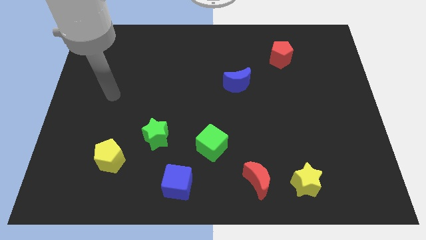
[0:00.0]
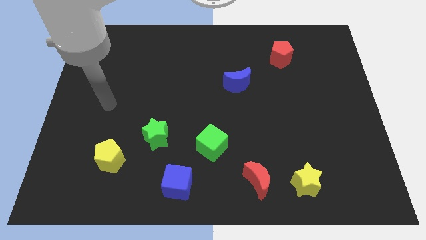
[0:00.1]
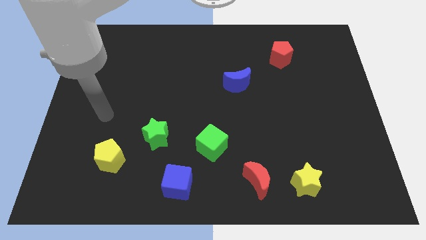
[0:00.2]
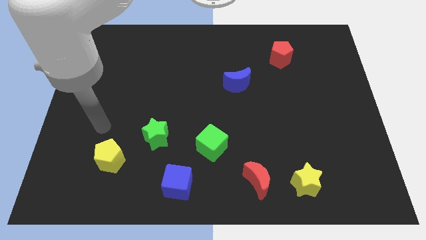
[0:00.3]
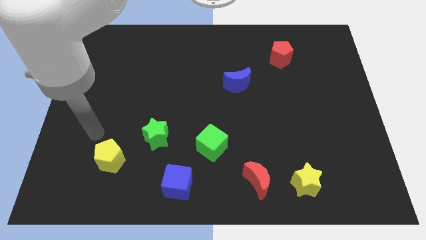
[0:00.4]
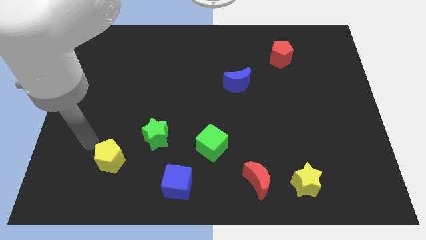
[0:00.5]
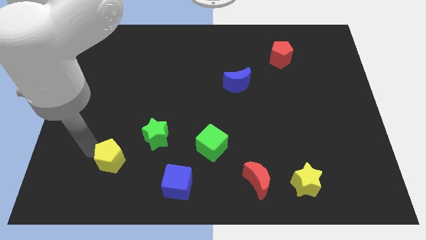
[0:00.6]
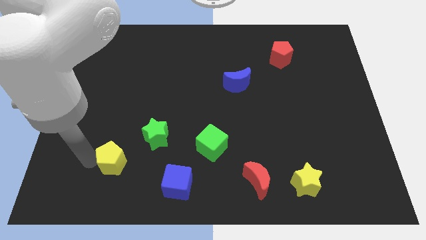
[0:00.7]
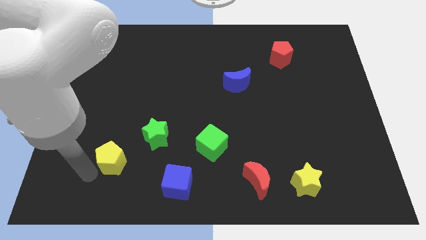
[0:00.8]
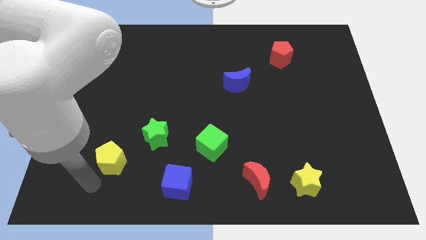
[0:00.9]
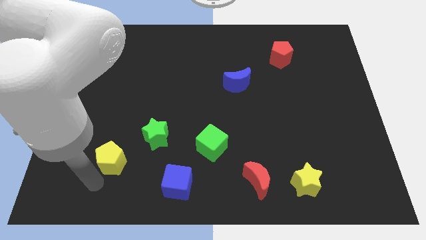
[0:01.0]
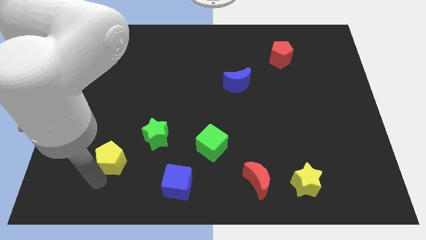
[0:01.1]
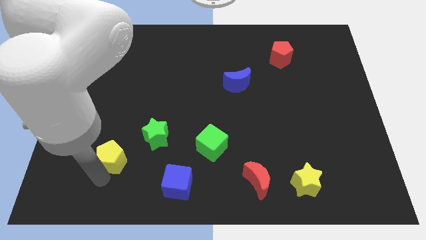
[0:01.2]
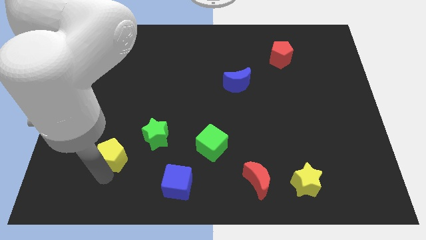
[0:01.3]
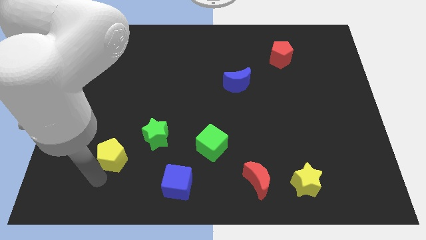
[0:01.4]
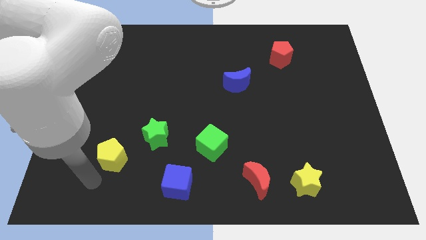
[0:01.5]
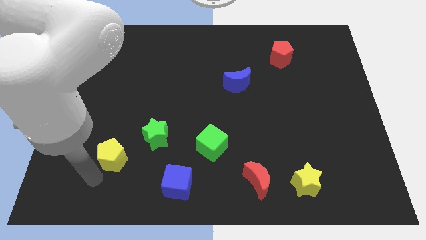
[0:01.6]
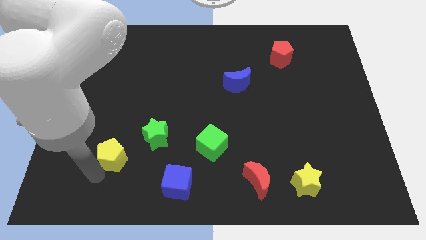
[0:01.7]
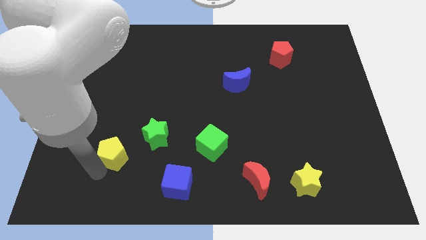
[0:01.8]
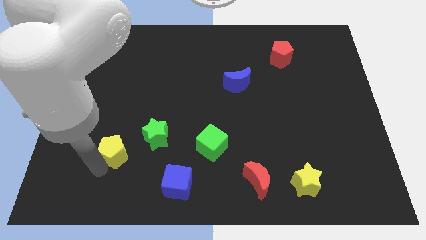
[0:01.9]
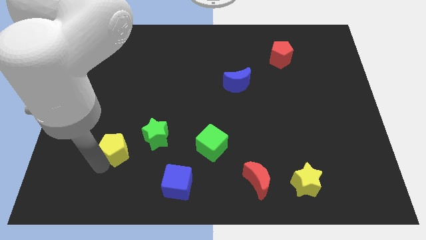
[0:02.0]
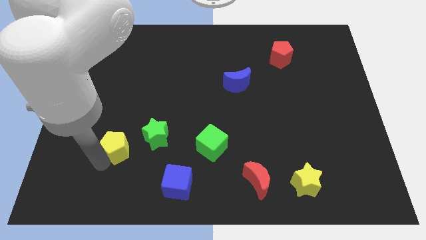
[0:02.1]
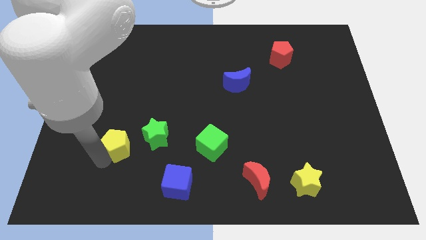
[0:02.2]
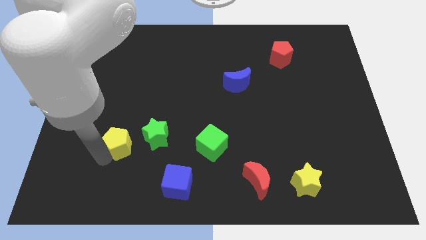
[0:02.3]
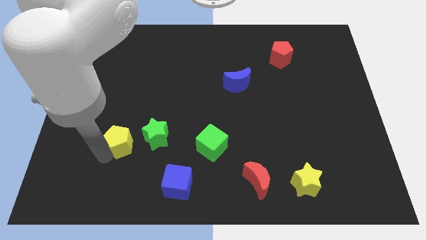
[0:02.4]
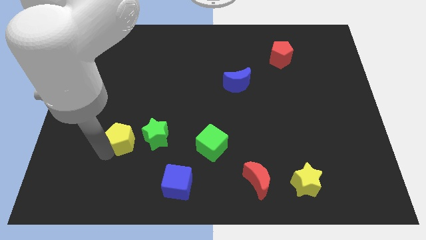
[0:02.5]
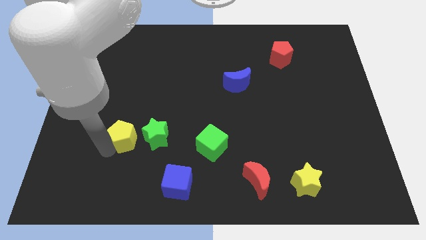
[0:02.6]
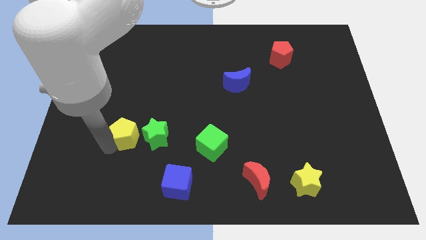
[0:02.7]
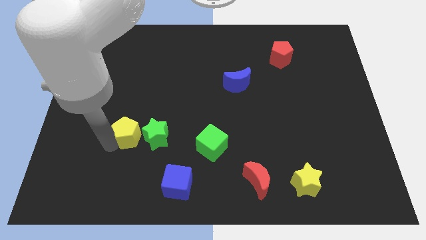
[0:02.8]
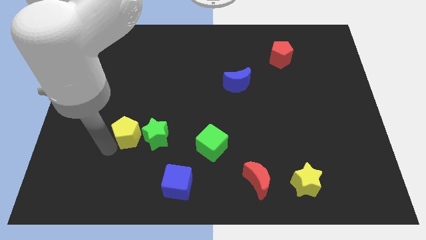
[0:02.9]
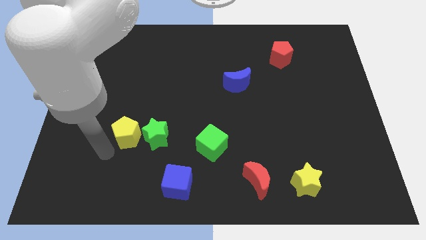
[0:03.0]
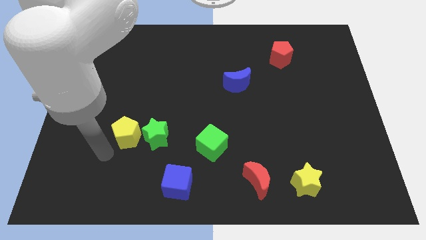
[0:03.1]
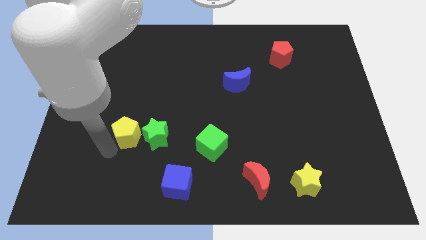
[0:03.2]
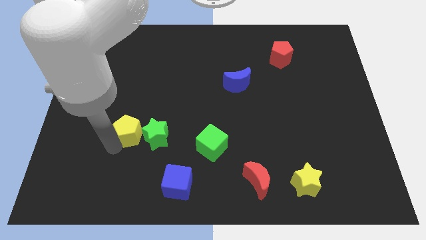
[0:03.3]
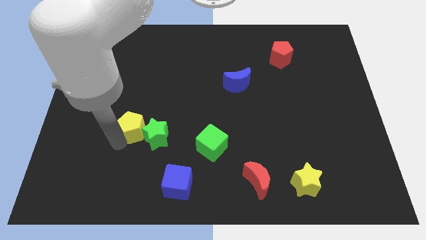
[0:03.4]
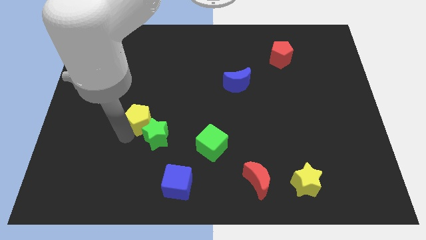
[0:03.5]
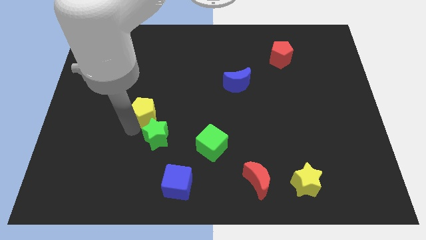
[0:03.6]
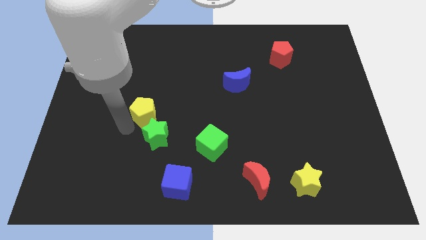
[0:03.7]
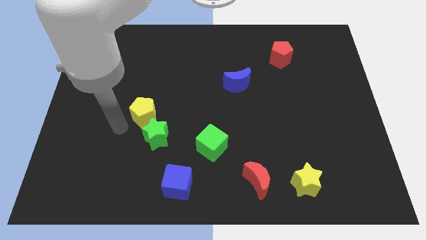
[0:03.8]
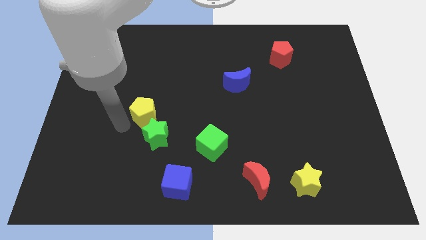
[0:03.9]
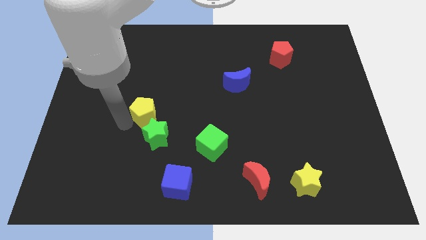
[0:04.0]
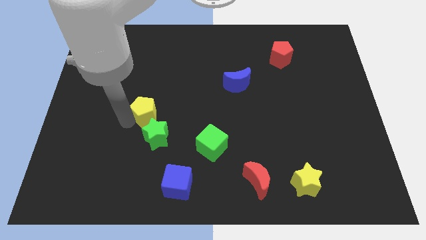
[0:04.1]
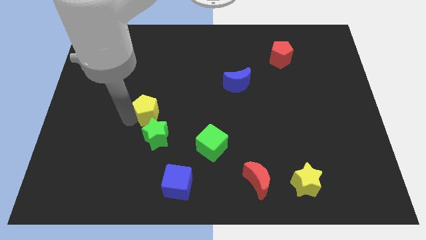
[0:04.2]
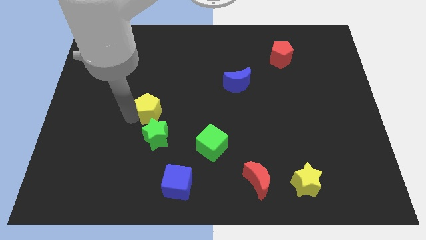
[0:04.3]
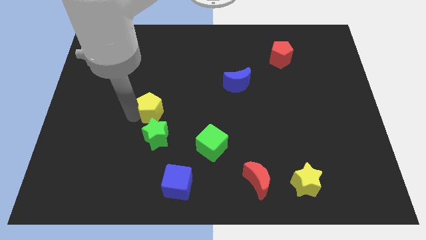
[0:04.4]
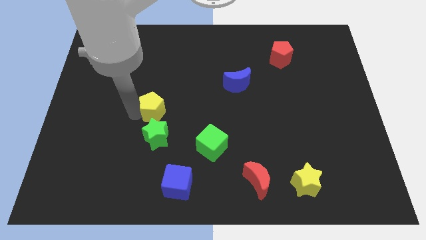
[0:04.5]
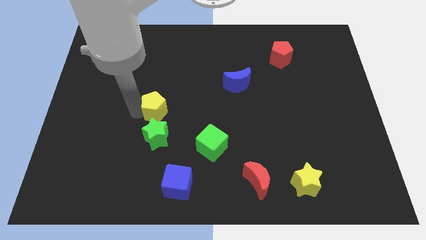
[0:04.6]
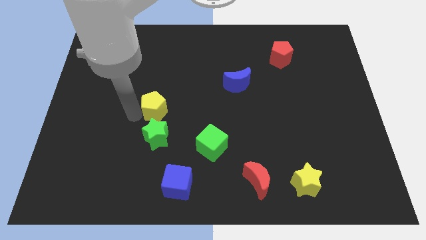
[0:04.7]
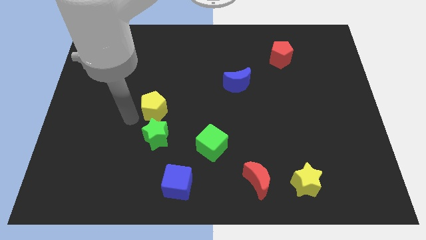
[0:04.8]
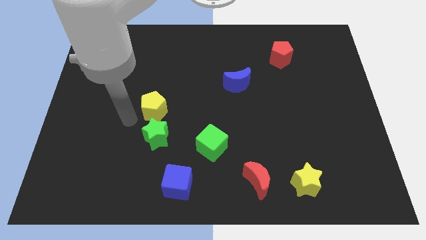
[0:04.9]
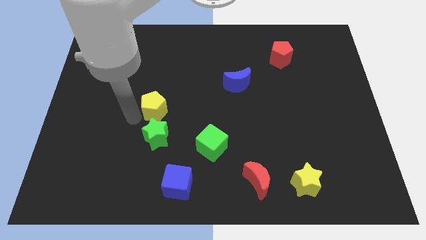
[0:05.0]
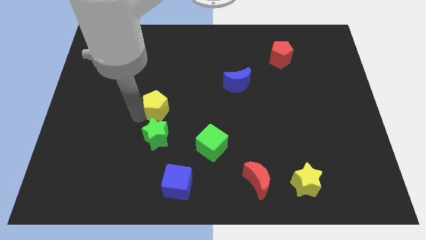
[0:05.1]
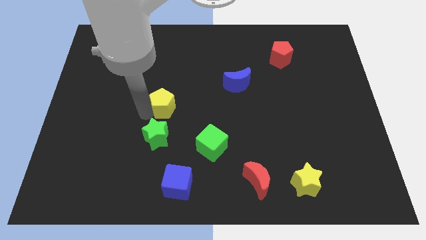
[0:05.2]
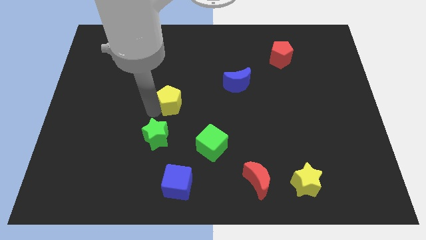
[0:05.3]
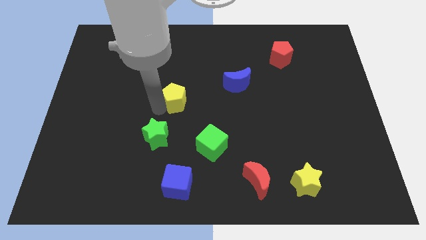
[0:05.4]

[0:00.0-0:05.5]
move the yellow pentagon upwards and then right

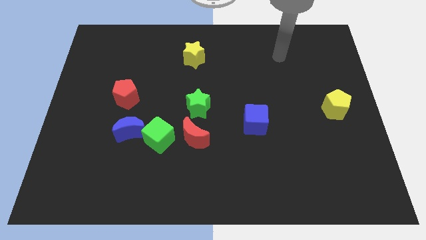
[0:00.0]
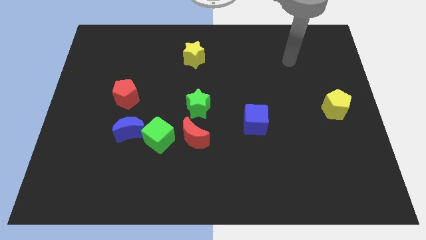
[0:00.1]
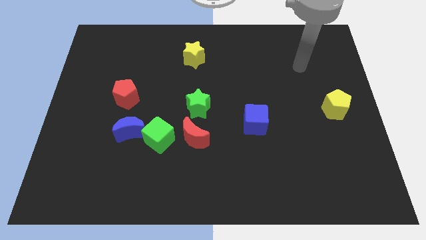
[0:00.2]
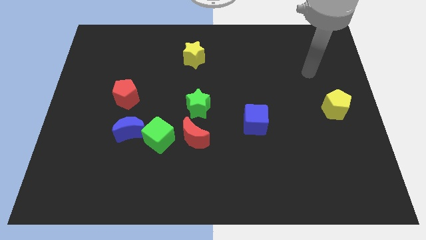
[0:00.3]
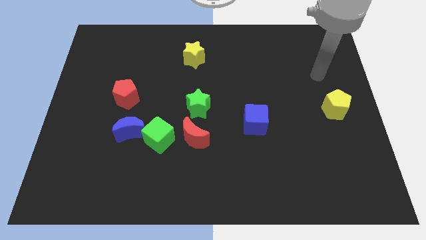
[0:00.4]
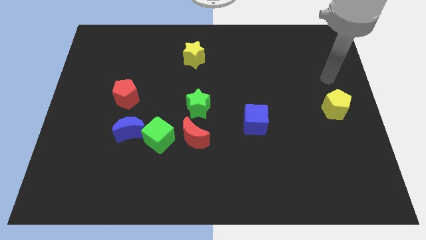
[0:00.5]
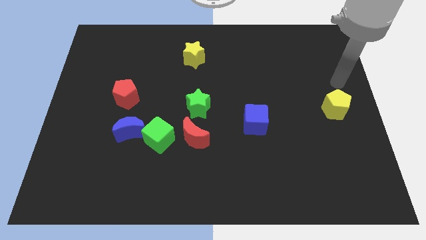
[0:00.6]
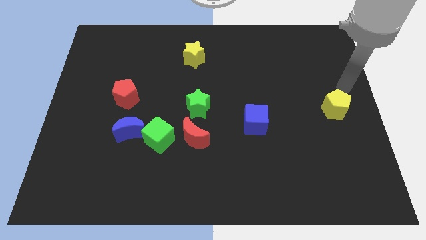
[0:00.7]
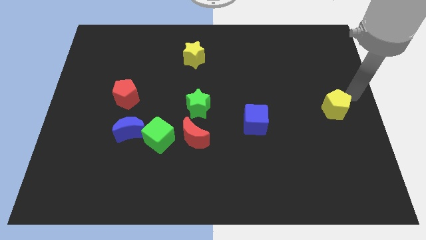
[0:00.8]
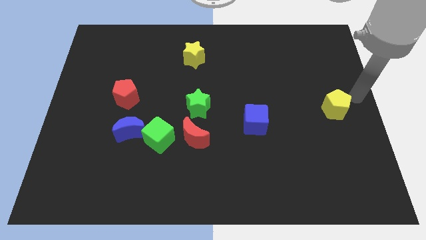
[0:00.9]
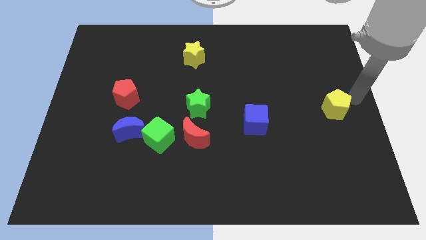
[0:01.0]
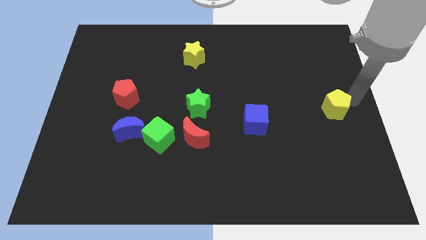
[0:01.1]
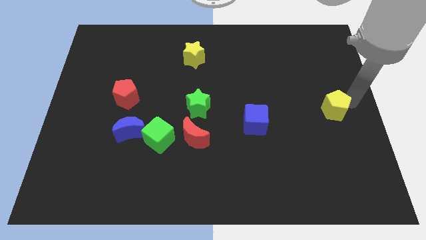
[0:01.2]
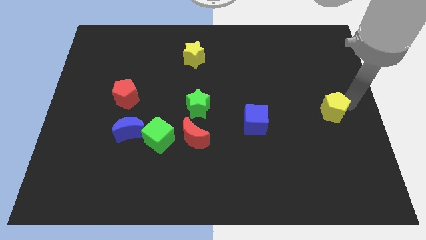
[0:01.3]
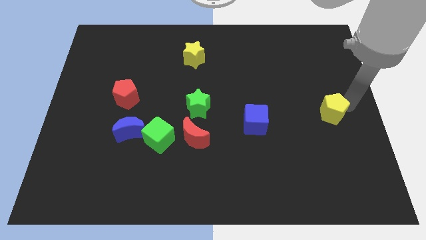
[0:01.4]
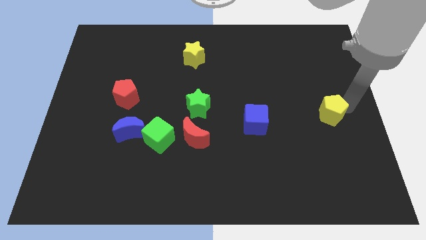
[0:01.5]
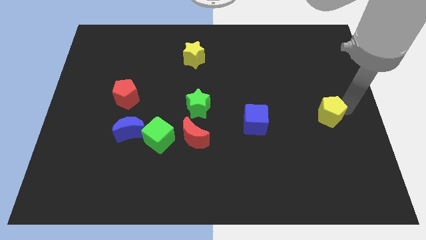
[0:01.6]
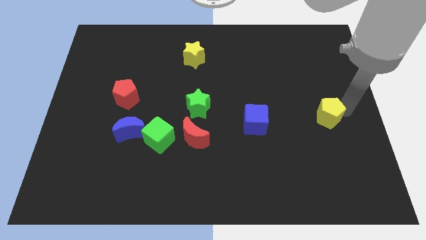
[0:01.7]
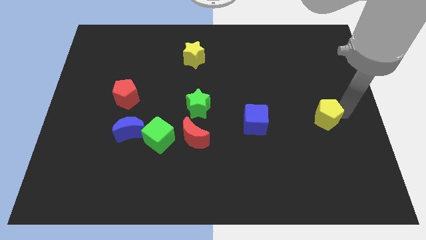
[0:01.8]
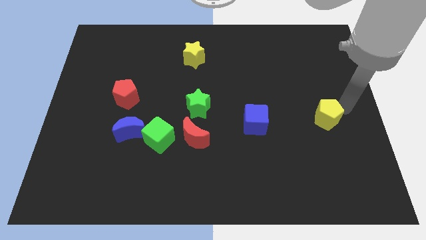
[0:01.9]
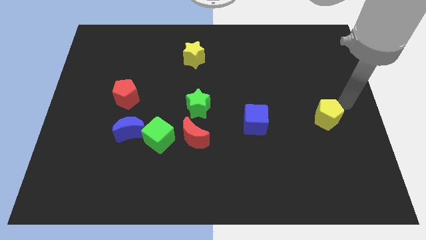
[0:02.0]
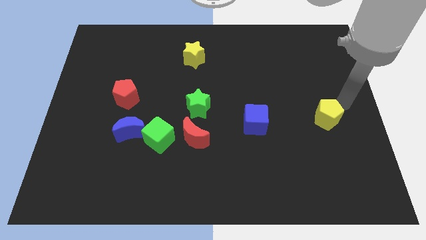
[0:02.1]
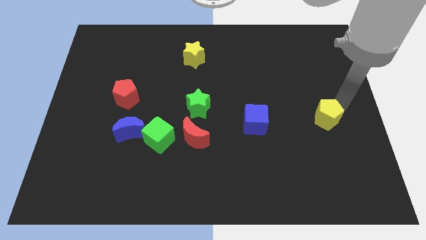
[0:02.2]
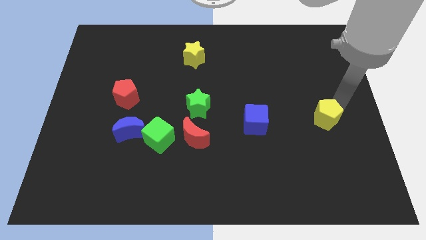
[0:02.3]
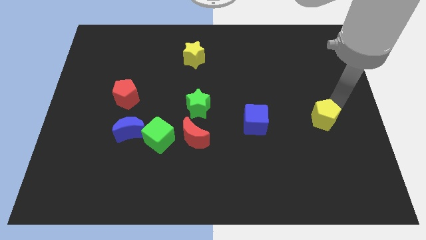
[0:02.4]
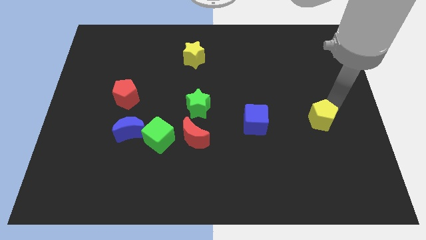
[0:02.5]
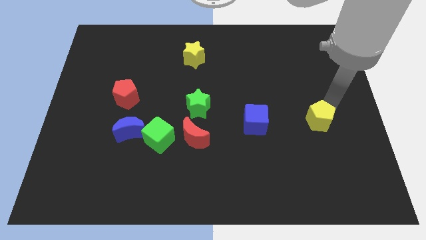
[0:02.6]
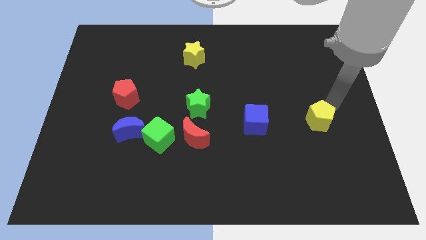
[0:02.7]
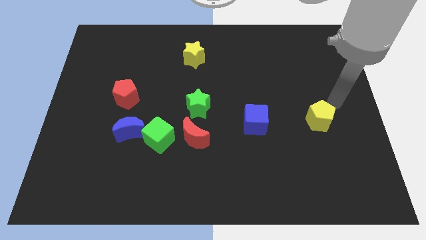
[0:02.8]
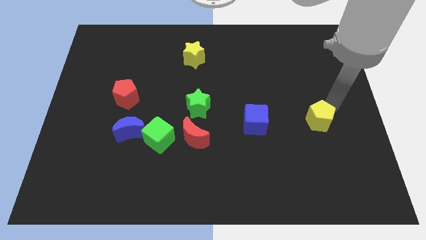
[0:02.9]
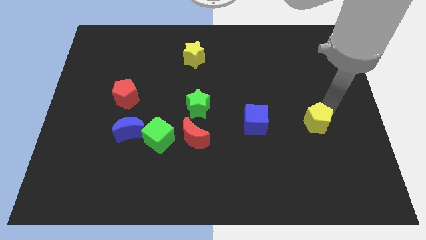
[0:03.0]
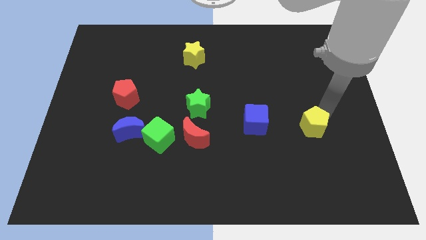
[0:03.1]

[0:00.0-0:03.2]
slightly move the yellow pentagon diagonally down and left
